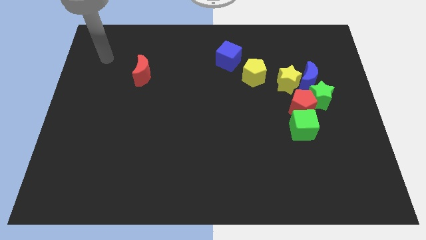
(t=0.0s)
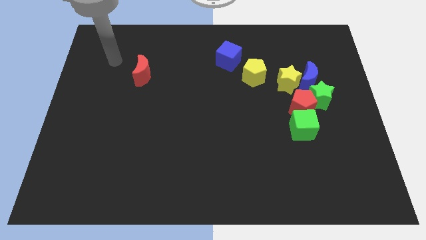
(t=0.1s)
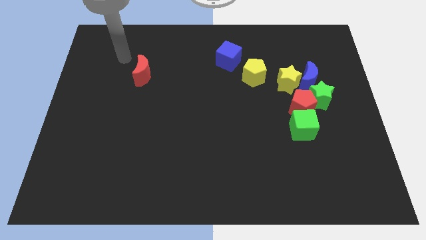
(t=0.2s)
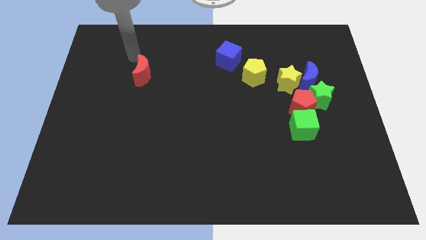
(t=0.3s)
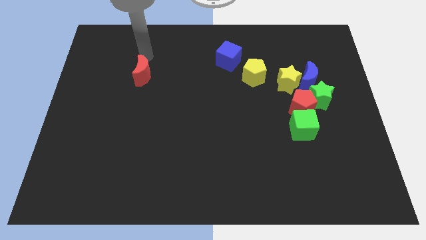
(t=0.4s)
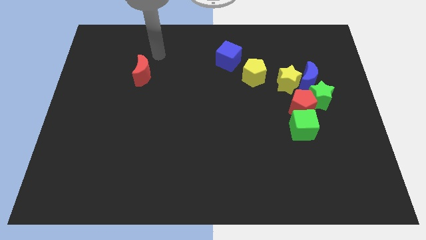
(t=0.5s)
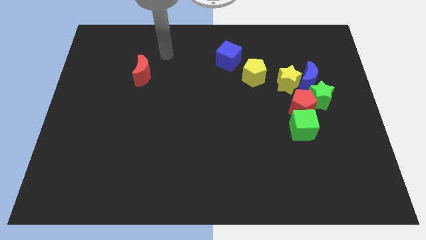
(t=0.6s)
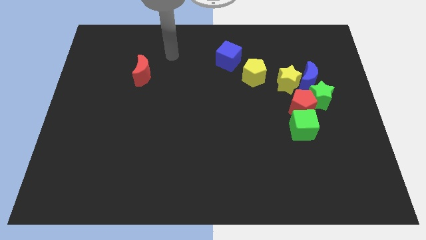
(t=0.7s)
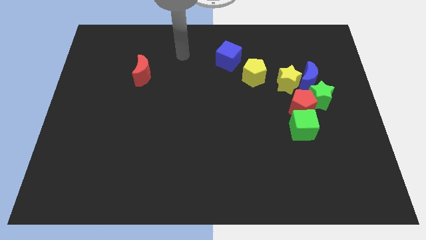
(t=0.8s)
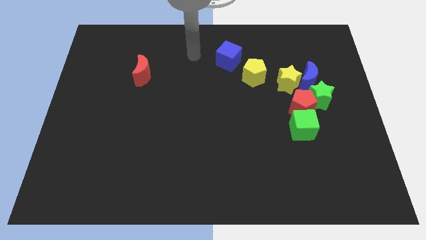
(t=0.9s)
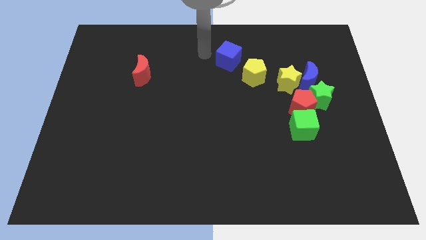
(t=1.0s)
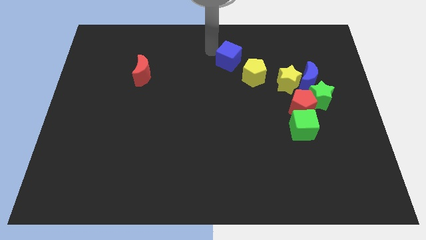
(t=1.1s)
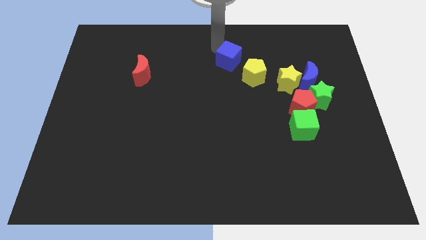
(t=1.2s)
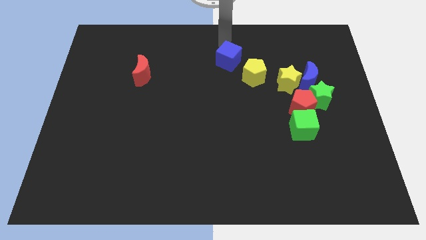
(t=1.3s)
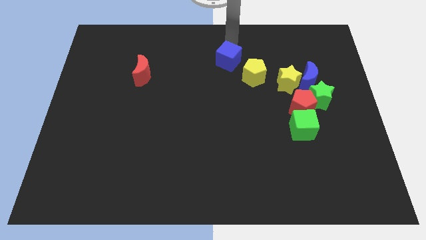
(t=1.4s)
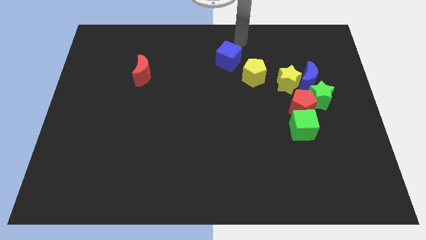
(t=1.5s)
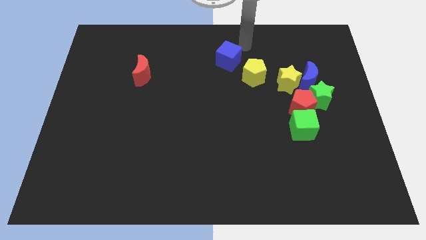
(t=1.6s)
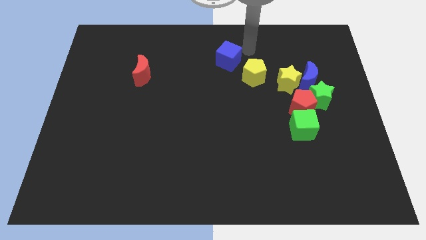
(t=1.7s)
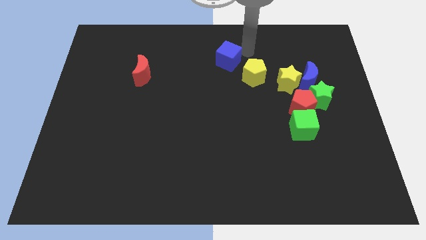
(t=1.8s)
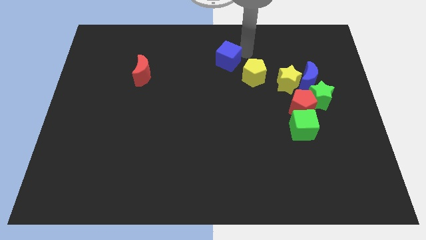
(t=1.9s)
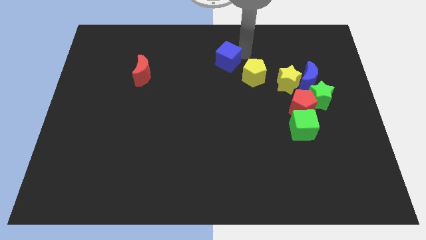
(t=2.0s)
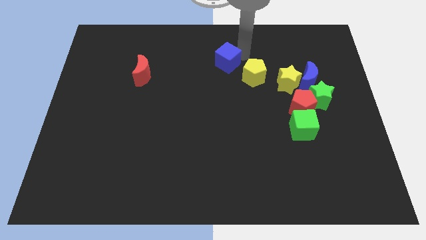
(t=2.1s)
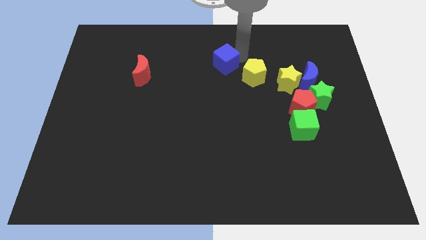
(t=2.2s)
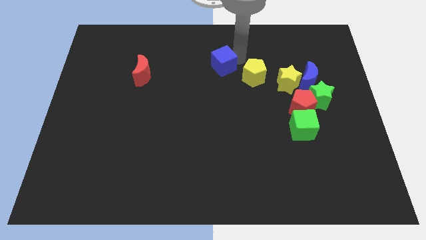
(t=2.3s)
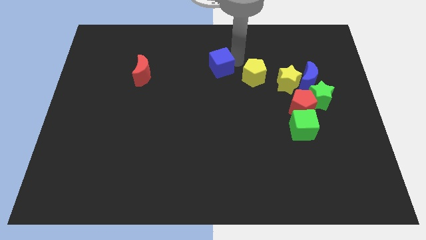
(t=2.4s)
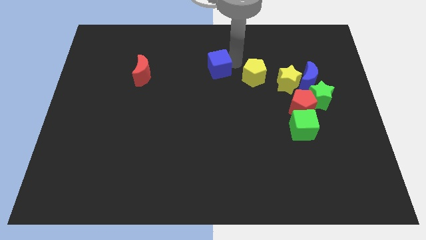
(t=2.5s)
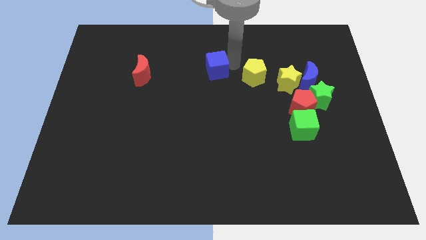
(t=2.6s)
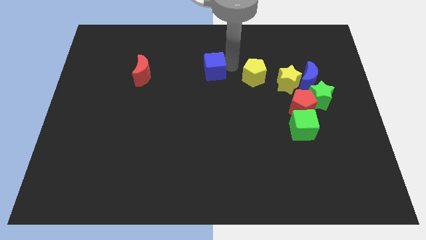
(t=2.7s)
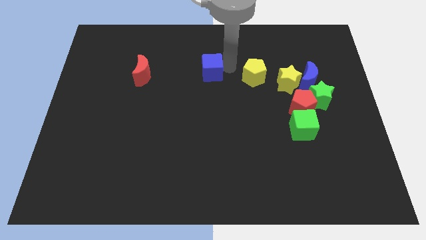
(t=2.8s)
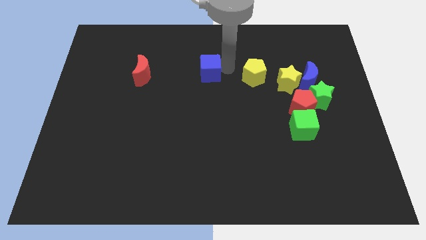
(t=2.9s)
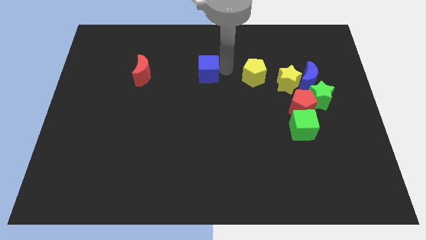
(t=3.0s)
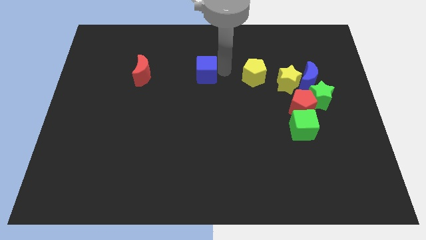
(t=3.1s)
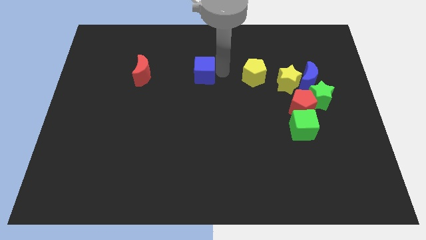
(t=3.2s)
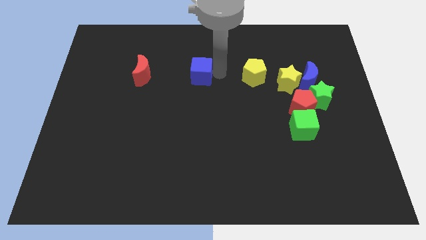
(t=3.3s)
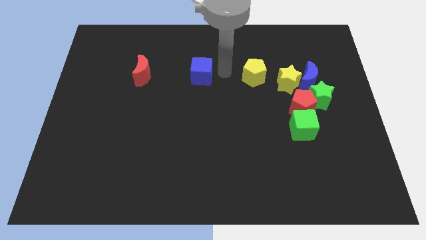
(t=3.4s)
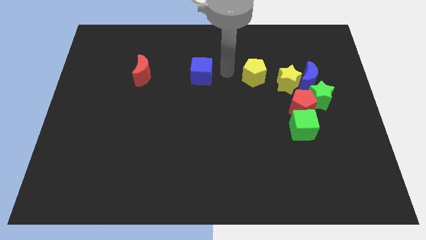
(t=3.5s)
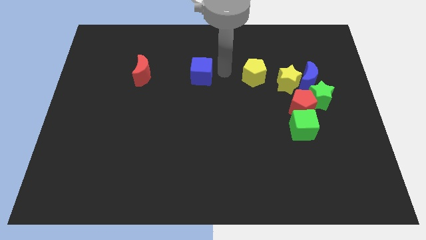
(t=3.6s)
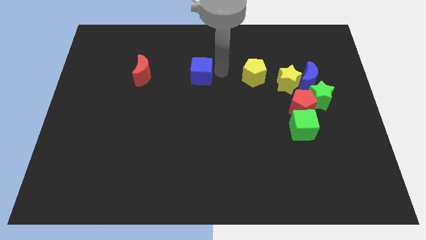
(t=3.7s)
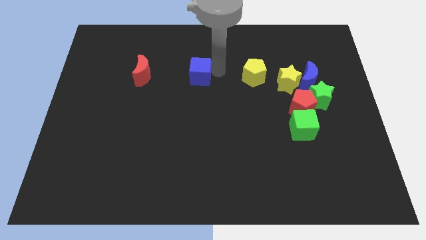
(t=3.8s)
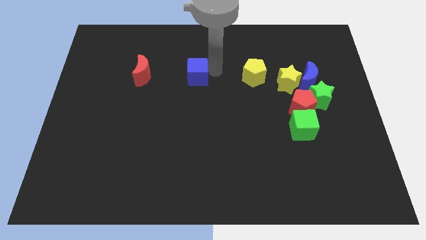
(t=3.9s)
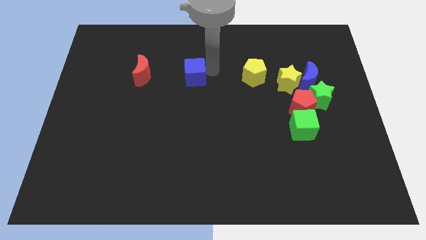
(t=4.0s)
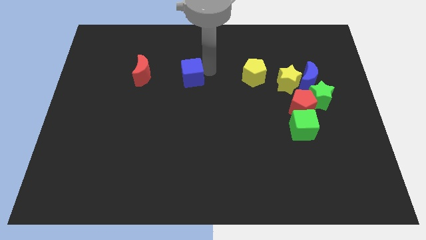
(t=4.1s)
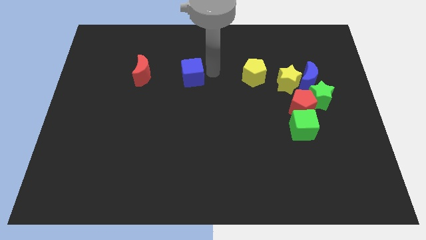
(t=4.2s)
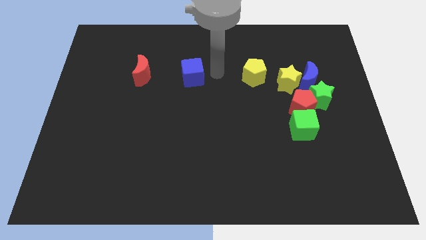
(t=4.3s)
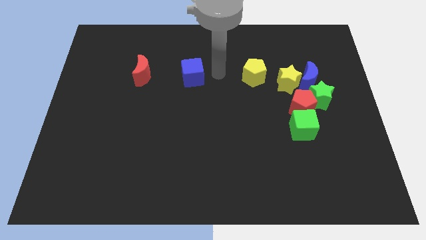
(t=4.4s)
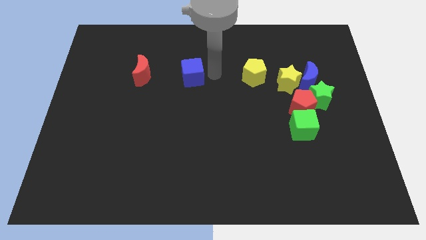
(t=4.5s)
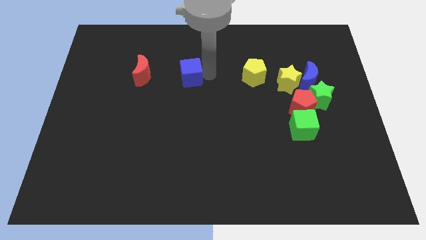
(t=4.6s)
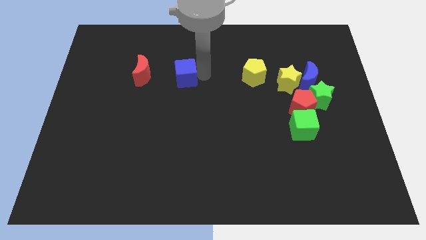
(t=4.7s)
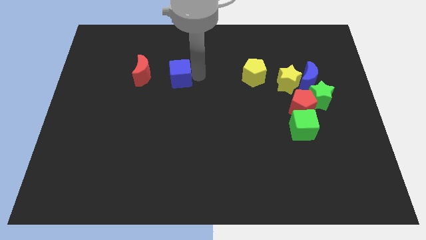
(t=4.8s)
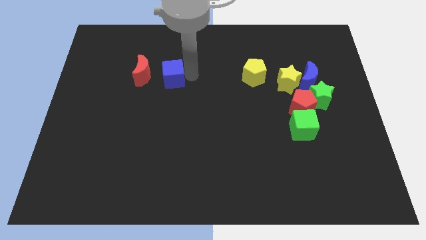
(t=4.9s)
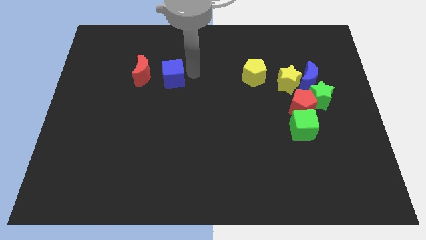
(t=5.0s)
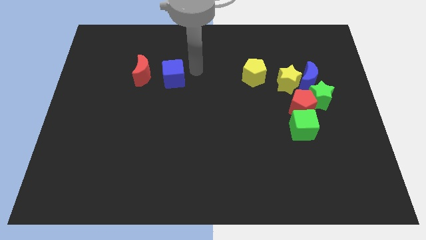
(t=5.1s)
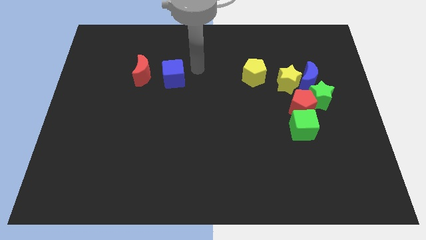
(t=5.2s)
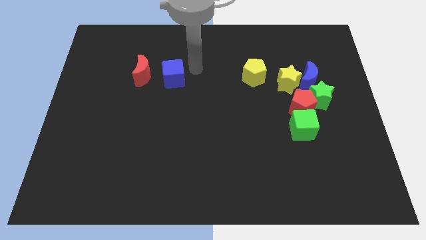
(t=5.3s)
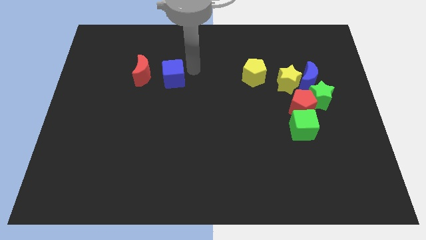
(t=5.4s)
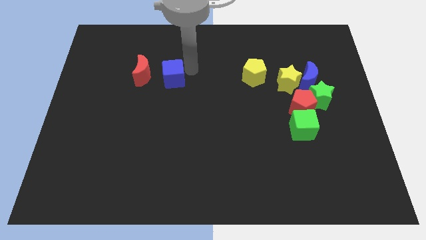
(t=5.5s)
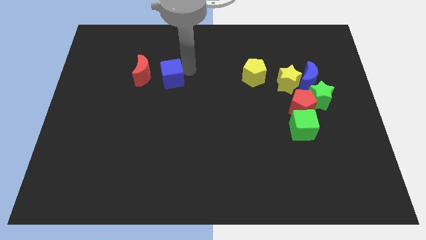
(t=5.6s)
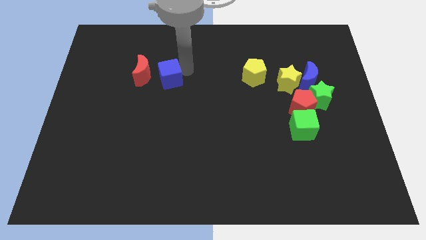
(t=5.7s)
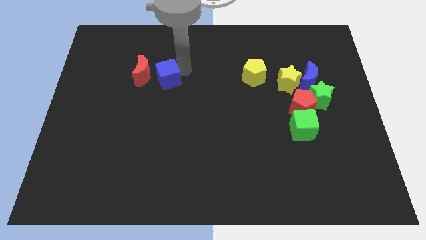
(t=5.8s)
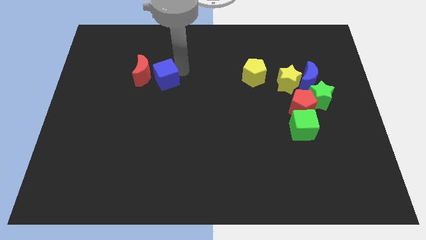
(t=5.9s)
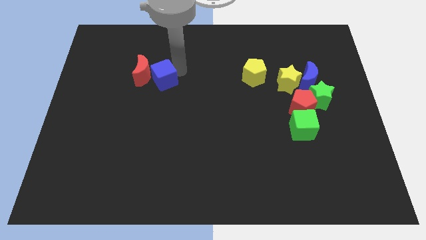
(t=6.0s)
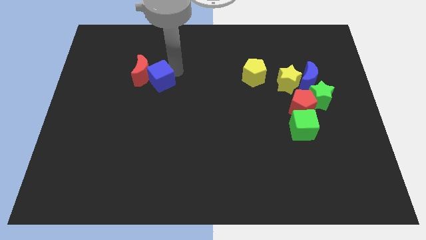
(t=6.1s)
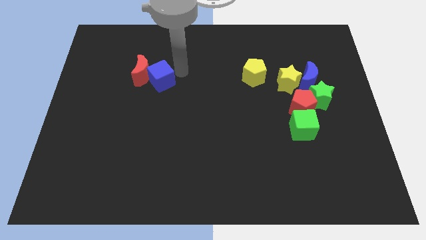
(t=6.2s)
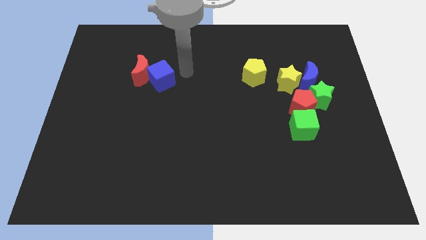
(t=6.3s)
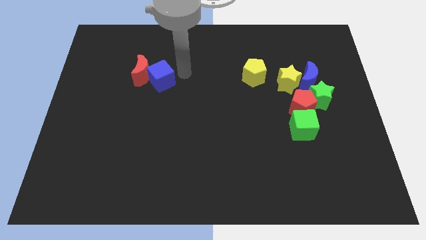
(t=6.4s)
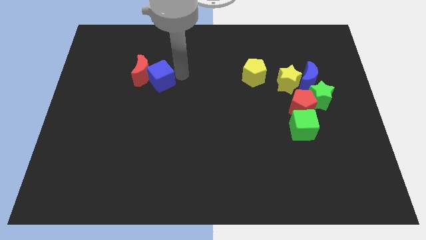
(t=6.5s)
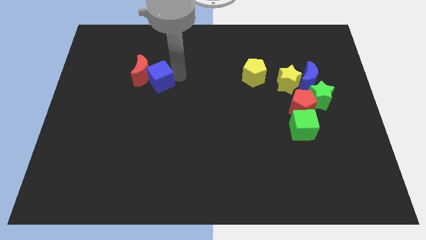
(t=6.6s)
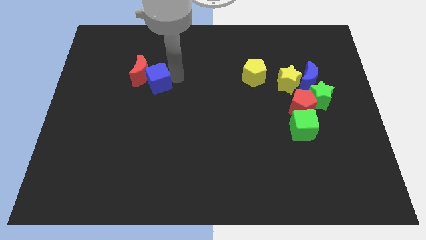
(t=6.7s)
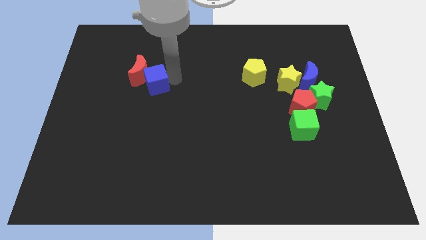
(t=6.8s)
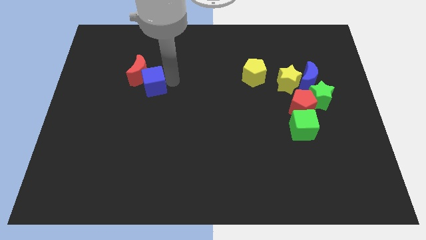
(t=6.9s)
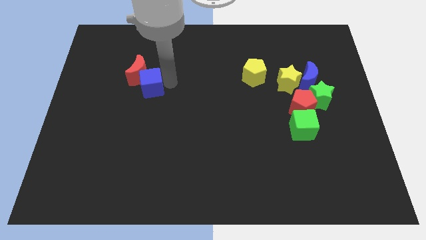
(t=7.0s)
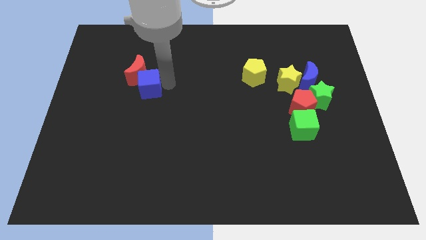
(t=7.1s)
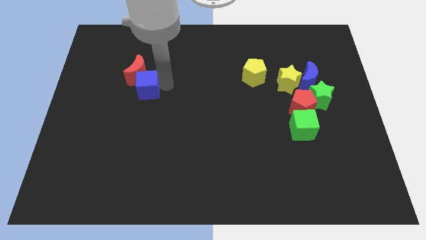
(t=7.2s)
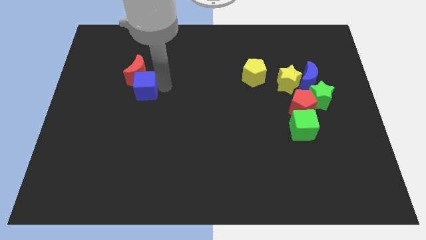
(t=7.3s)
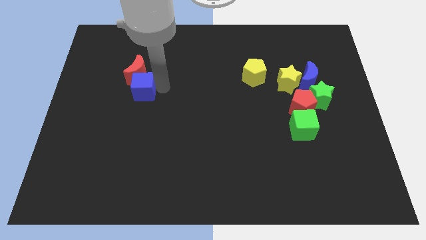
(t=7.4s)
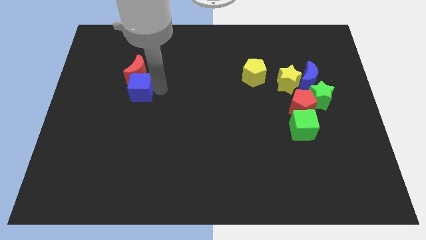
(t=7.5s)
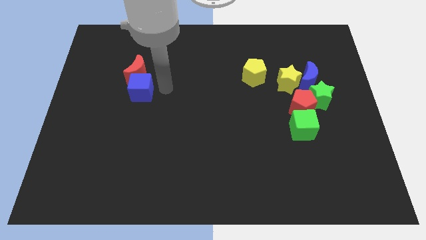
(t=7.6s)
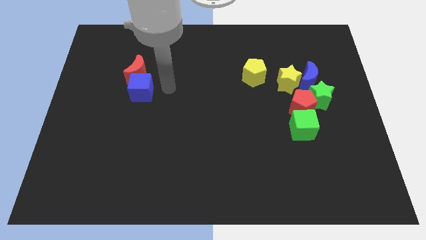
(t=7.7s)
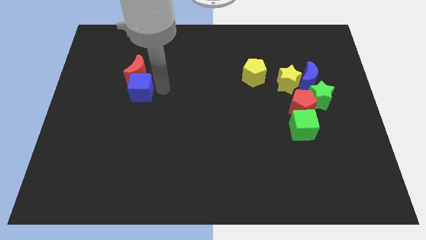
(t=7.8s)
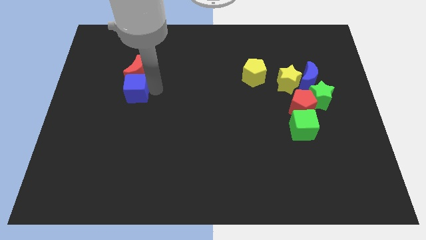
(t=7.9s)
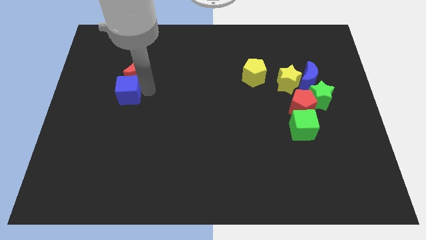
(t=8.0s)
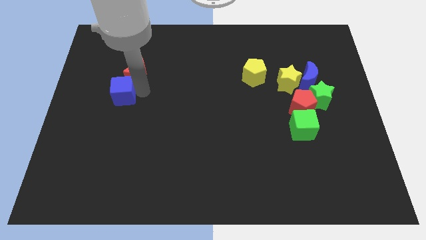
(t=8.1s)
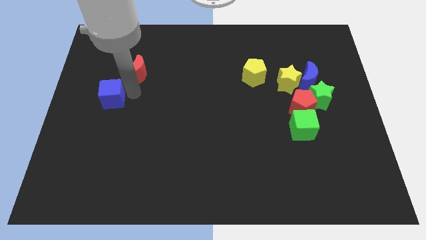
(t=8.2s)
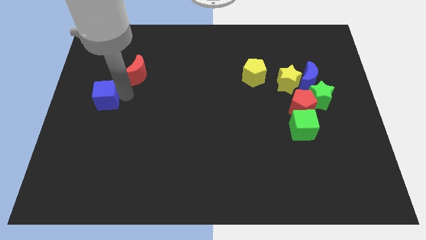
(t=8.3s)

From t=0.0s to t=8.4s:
put the blue cube to the center left
